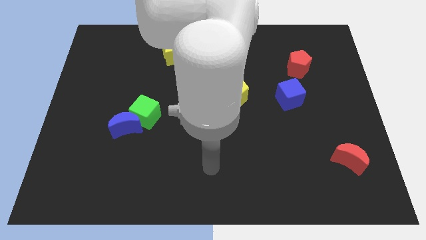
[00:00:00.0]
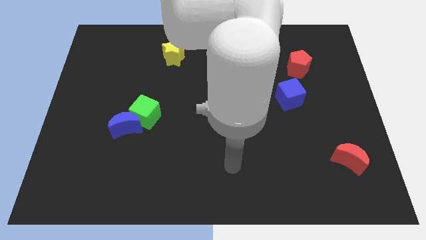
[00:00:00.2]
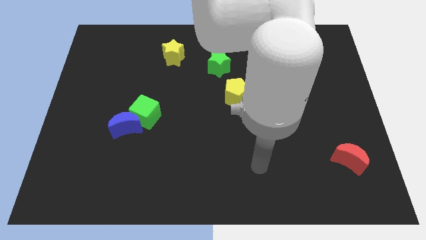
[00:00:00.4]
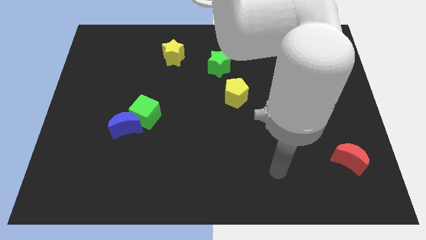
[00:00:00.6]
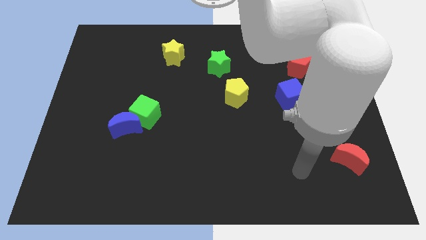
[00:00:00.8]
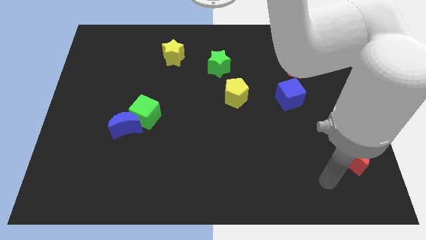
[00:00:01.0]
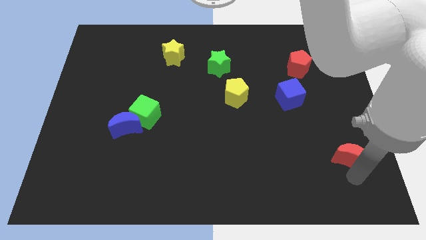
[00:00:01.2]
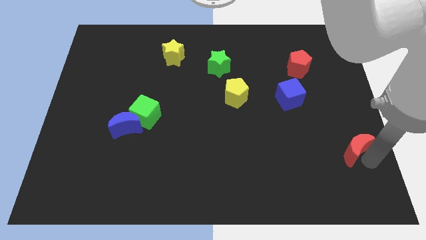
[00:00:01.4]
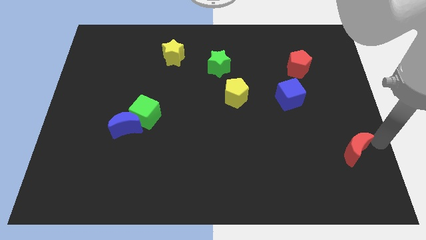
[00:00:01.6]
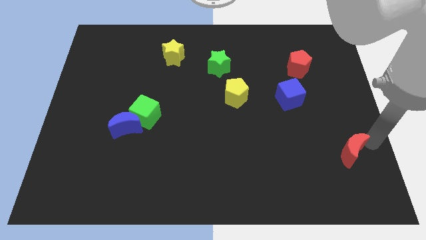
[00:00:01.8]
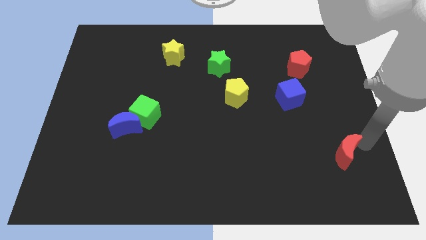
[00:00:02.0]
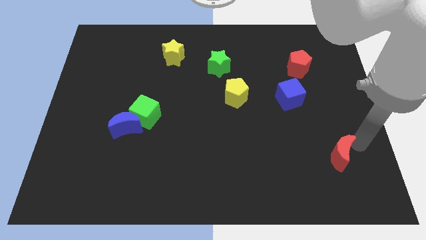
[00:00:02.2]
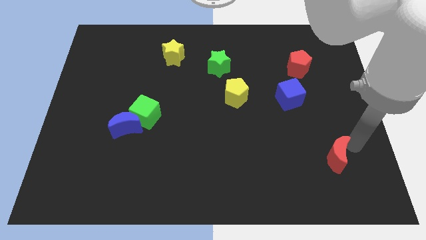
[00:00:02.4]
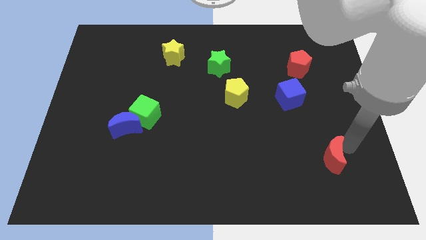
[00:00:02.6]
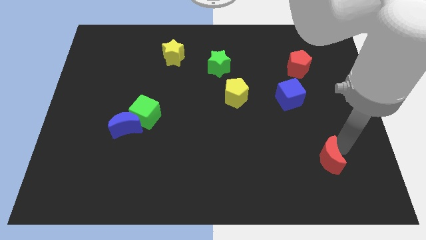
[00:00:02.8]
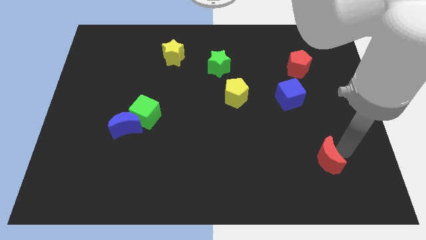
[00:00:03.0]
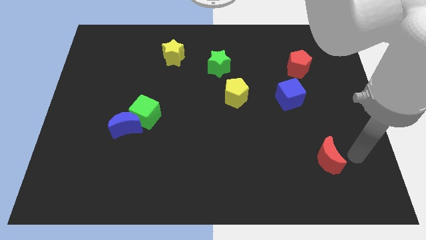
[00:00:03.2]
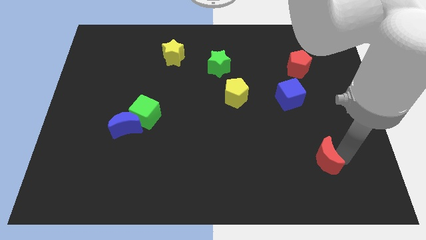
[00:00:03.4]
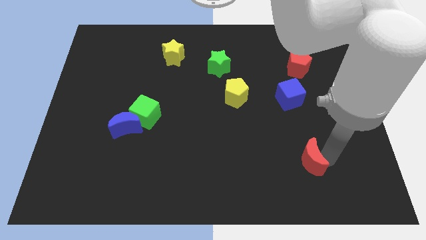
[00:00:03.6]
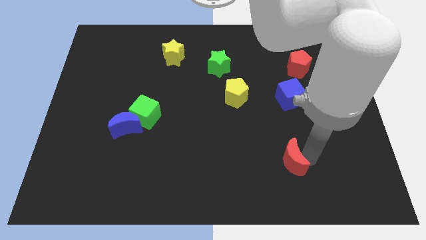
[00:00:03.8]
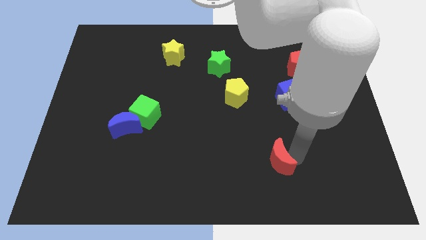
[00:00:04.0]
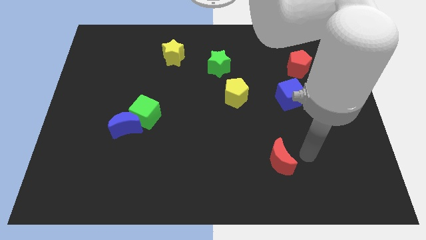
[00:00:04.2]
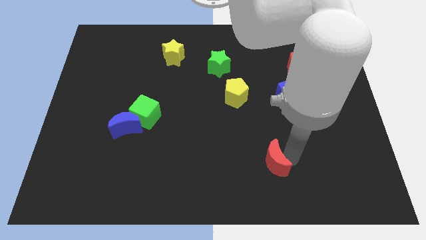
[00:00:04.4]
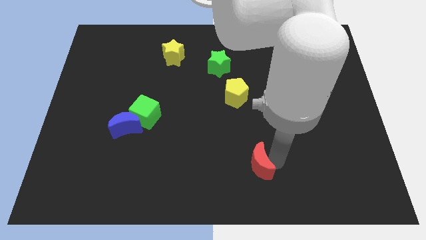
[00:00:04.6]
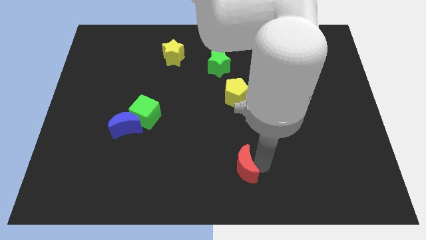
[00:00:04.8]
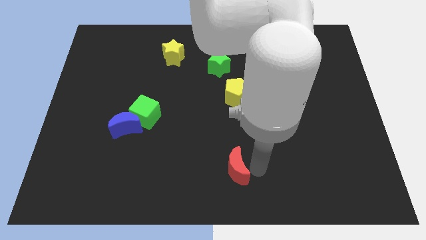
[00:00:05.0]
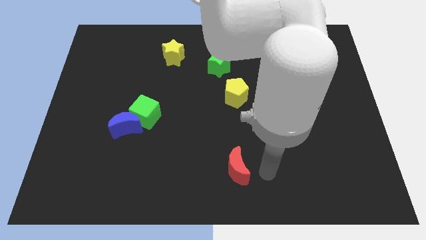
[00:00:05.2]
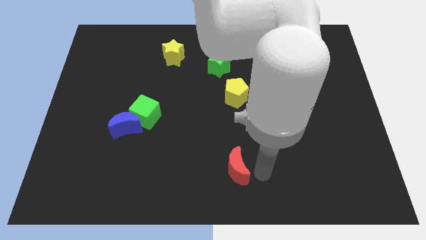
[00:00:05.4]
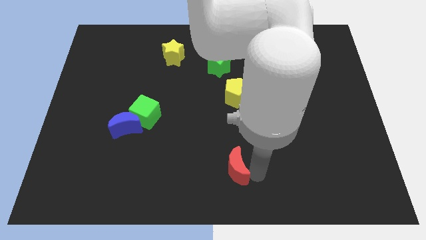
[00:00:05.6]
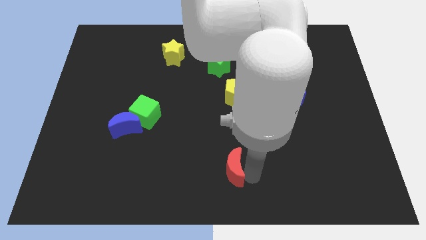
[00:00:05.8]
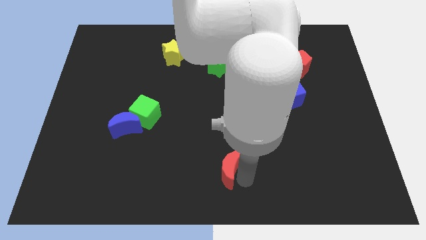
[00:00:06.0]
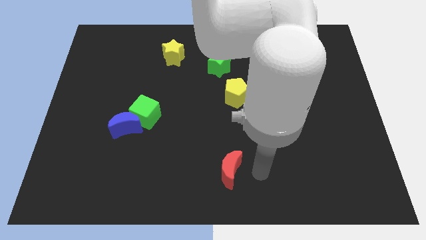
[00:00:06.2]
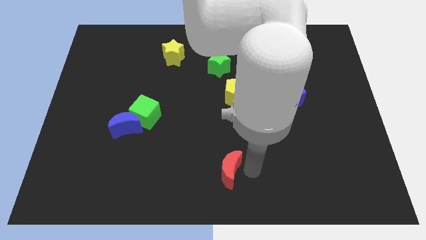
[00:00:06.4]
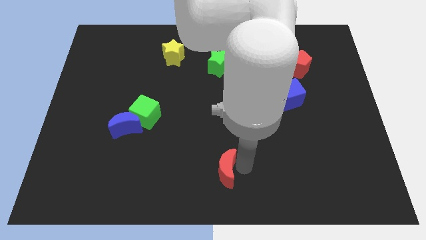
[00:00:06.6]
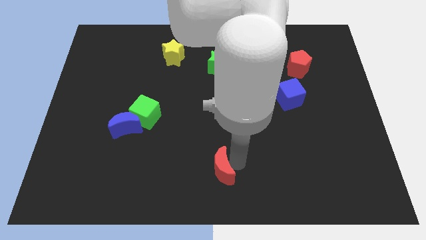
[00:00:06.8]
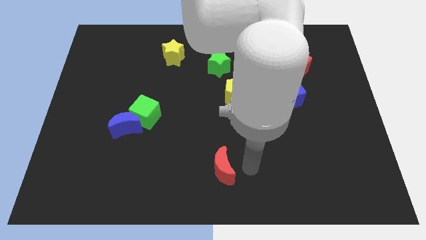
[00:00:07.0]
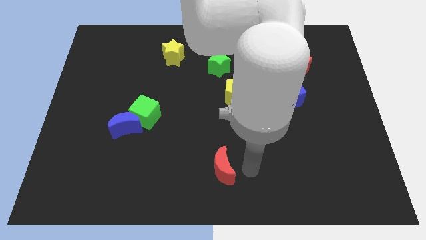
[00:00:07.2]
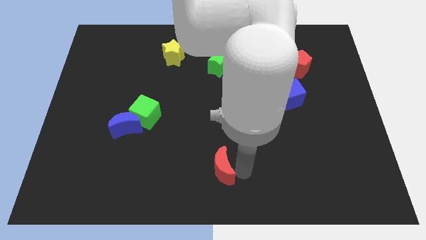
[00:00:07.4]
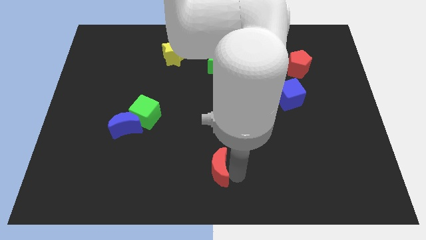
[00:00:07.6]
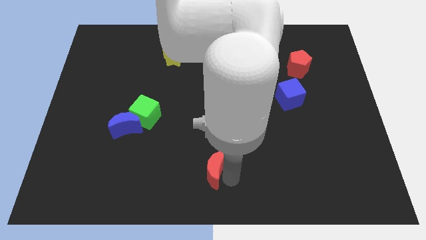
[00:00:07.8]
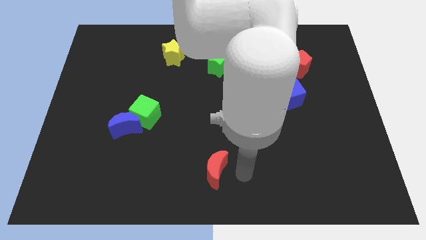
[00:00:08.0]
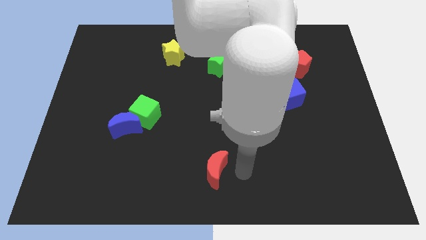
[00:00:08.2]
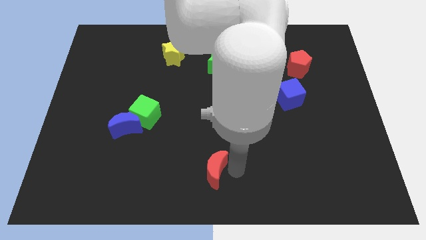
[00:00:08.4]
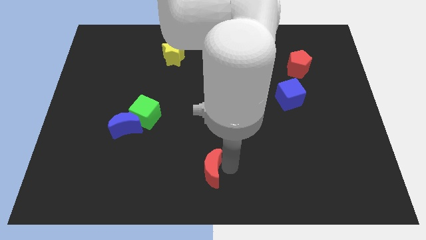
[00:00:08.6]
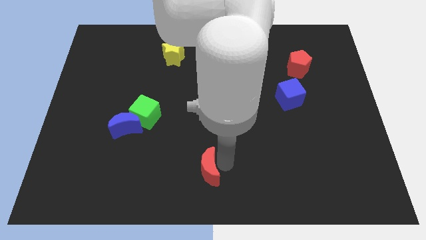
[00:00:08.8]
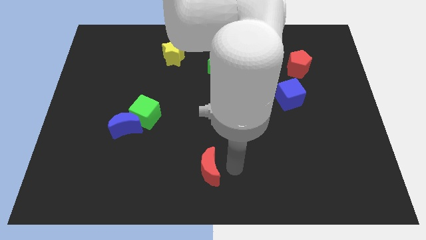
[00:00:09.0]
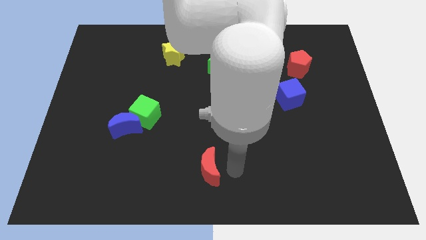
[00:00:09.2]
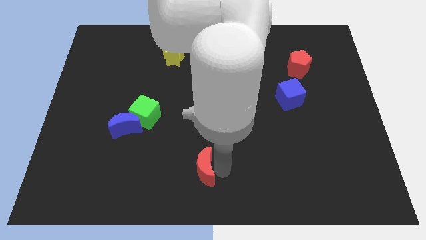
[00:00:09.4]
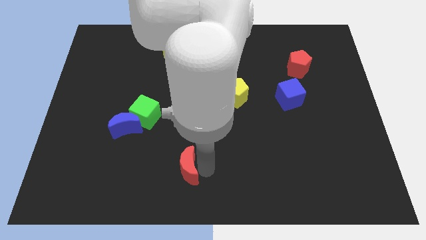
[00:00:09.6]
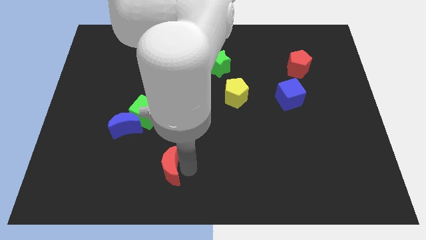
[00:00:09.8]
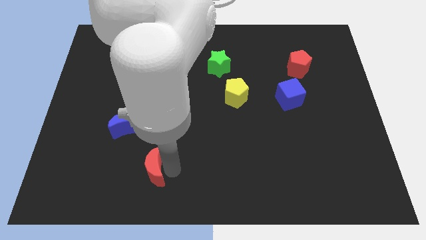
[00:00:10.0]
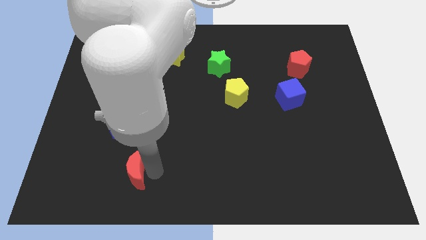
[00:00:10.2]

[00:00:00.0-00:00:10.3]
move the red moon to the bottom side of the blue moon

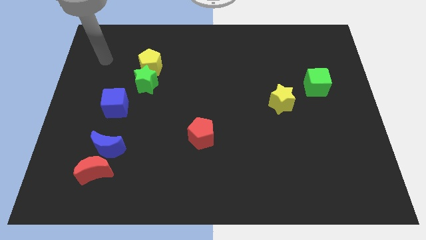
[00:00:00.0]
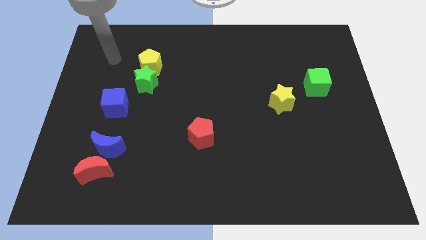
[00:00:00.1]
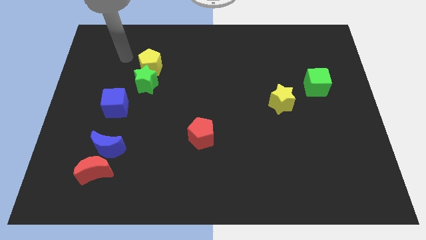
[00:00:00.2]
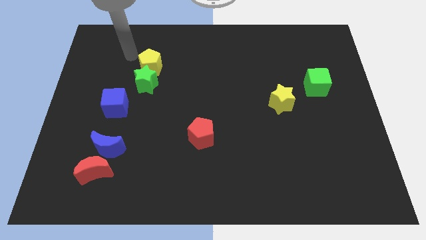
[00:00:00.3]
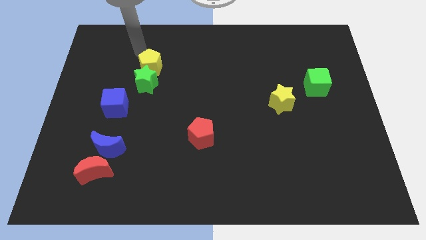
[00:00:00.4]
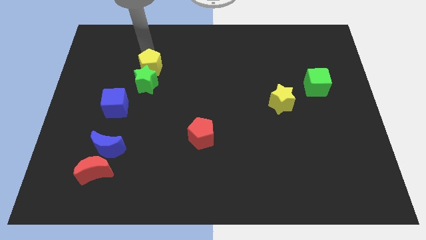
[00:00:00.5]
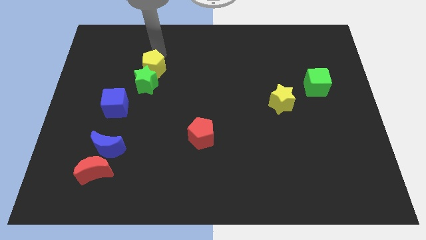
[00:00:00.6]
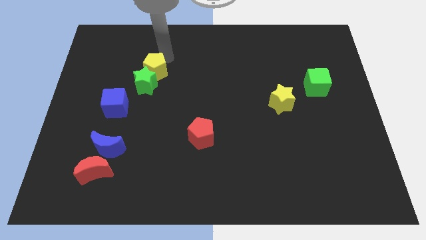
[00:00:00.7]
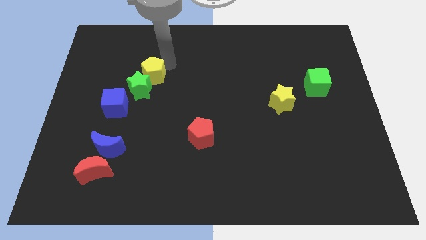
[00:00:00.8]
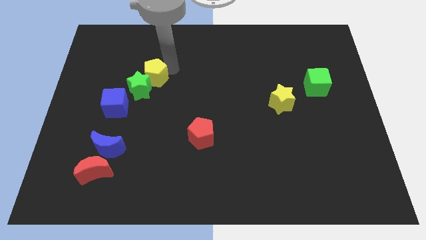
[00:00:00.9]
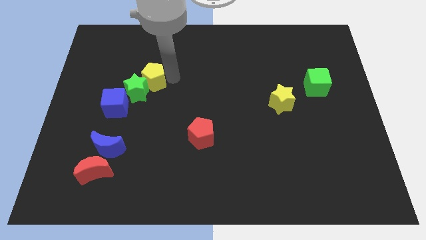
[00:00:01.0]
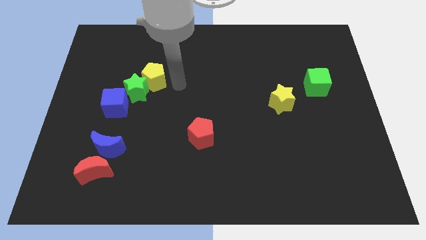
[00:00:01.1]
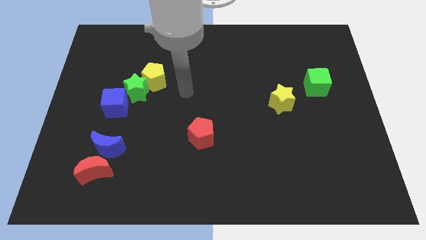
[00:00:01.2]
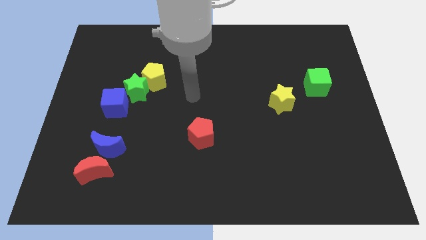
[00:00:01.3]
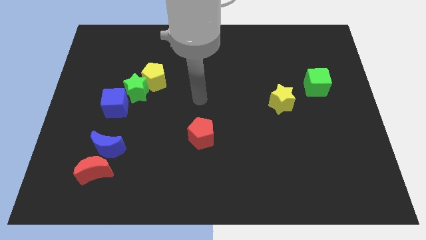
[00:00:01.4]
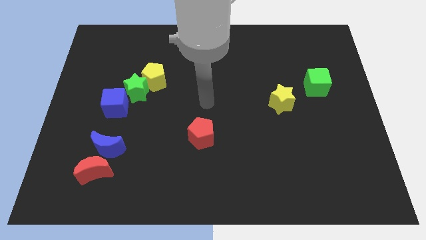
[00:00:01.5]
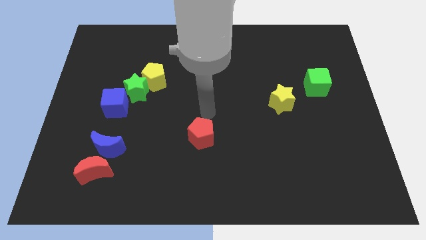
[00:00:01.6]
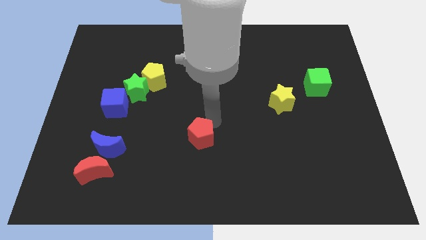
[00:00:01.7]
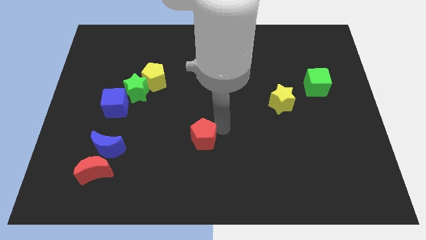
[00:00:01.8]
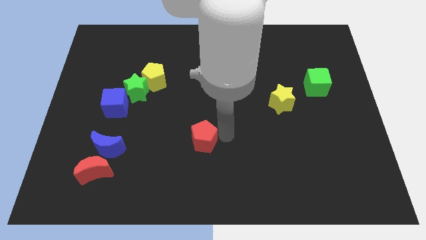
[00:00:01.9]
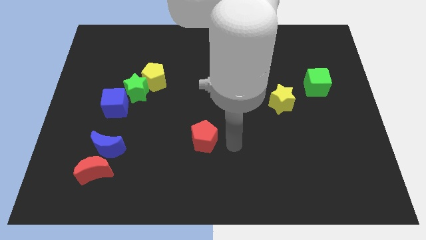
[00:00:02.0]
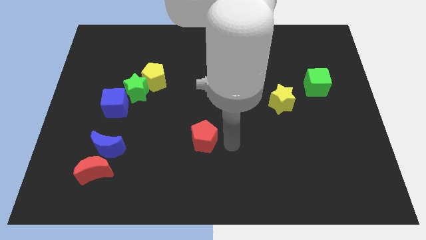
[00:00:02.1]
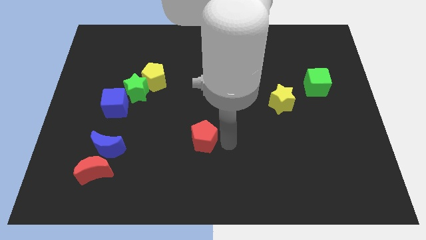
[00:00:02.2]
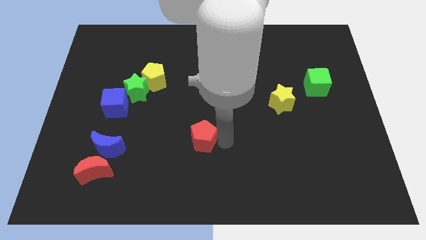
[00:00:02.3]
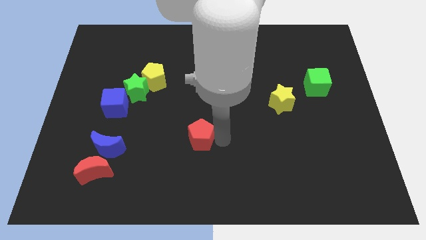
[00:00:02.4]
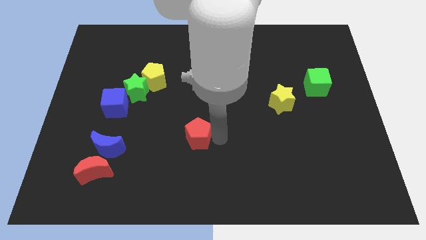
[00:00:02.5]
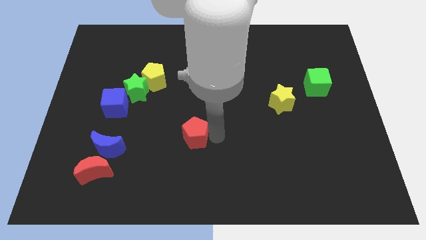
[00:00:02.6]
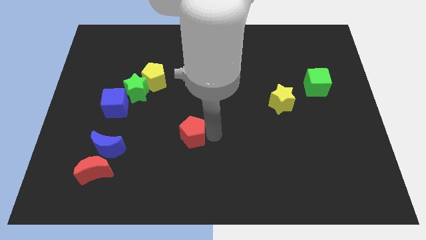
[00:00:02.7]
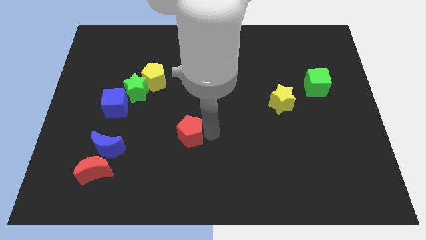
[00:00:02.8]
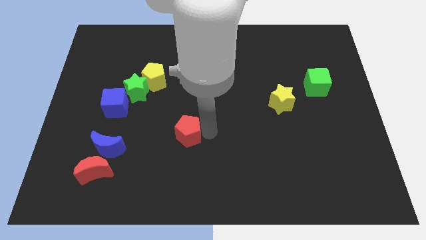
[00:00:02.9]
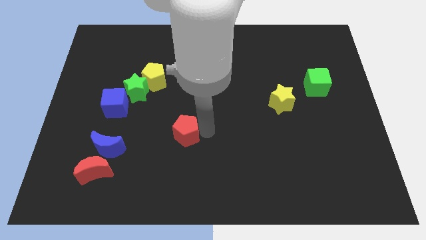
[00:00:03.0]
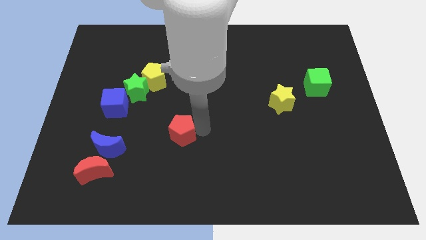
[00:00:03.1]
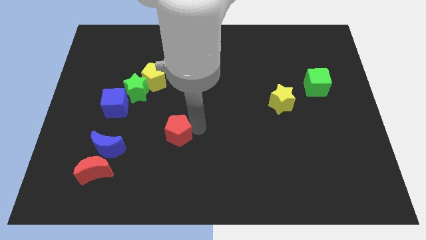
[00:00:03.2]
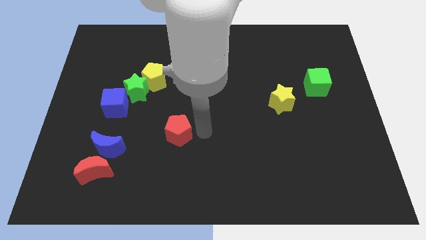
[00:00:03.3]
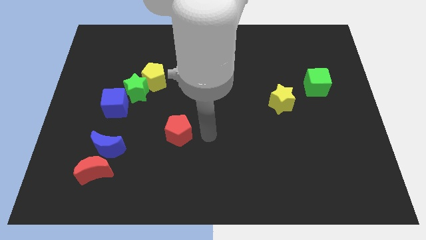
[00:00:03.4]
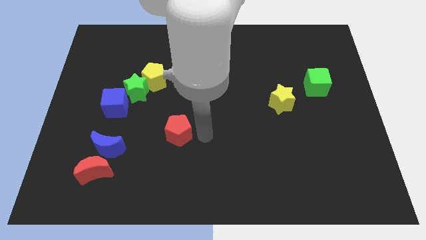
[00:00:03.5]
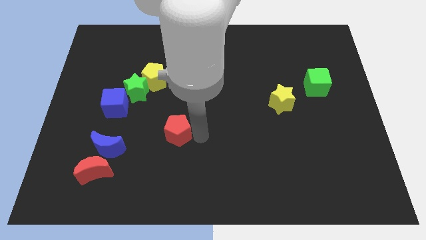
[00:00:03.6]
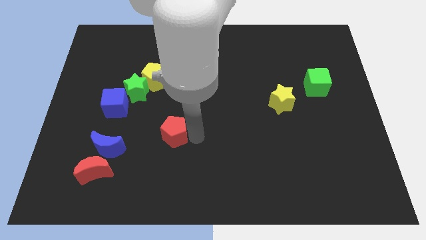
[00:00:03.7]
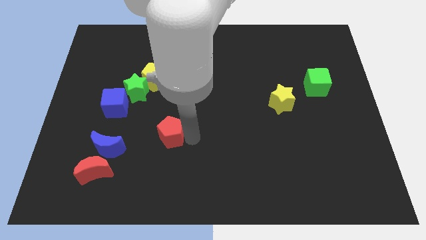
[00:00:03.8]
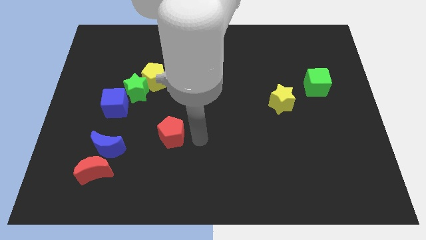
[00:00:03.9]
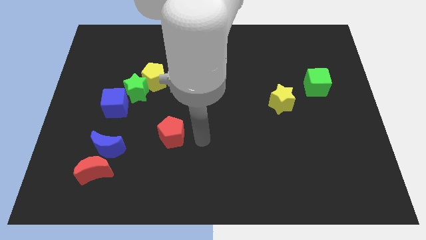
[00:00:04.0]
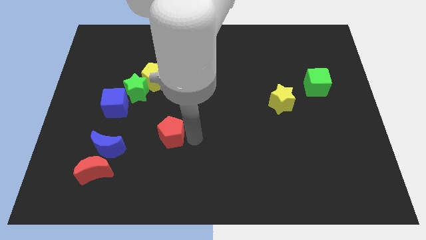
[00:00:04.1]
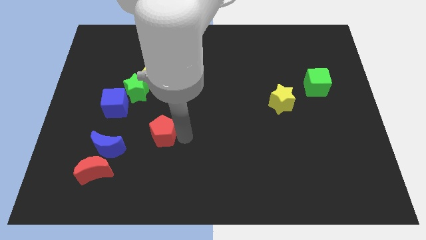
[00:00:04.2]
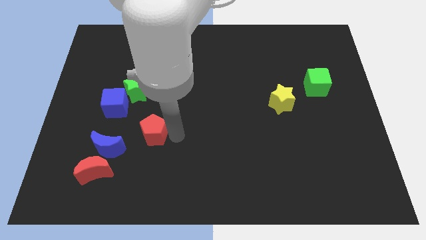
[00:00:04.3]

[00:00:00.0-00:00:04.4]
slide the red pentagon diagonally up and to the right of the blue moon
